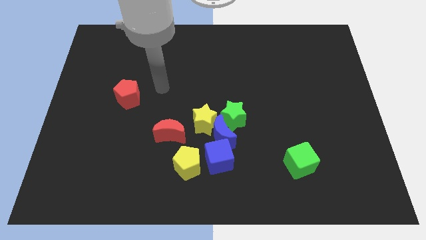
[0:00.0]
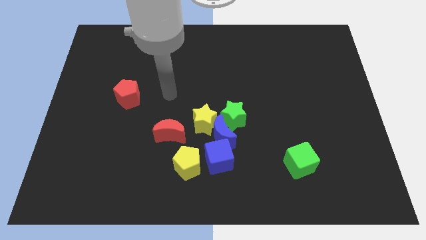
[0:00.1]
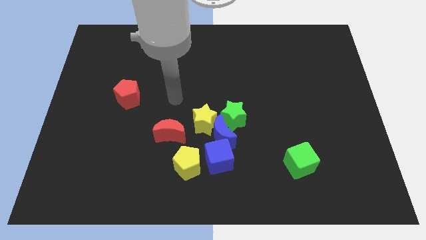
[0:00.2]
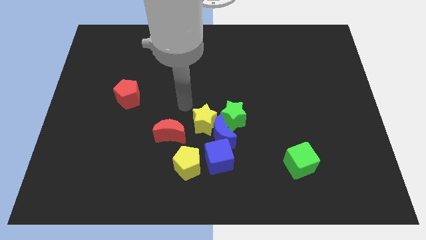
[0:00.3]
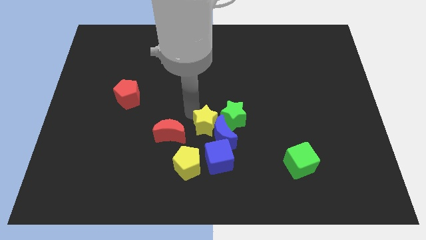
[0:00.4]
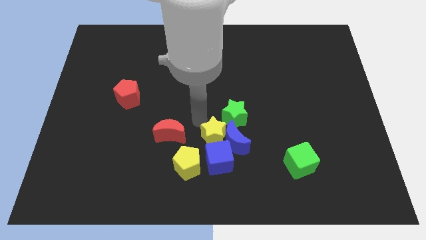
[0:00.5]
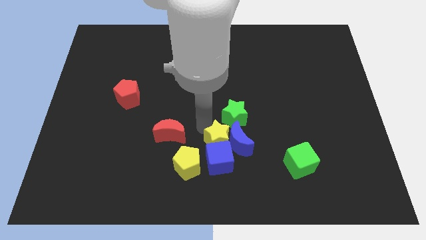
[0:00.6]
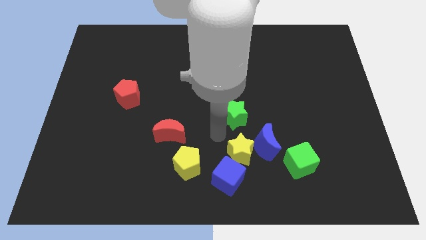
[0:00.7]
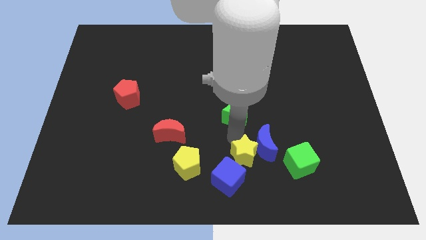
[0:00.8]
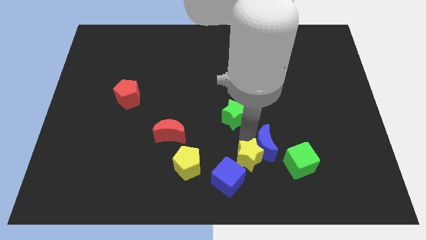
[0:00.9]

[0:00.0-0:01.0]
pull the green star apart from the blue moon and yellow star

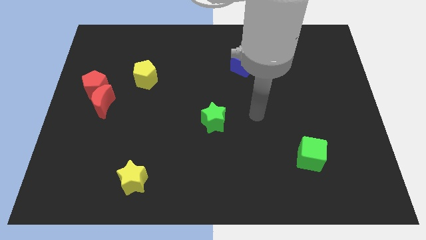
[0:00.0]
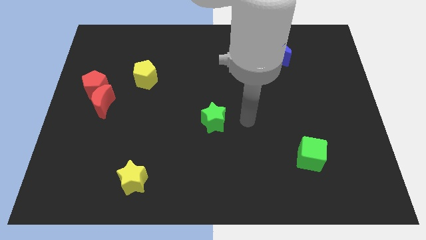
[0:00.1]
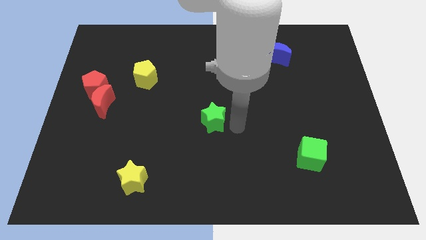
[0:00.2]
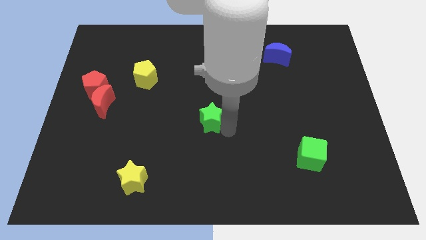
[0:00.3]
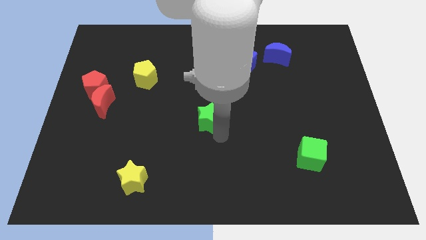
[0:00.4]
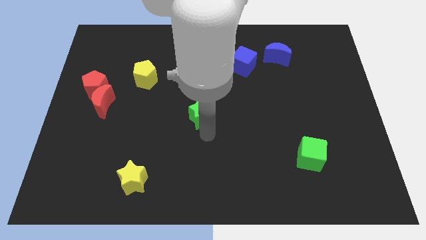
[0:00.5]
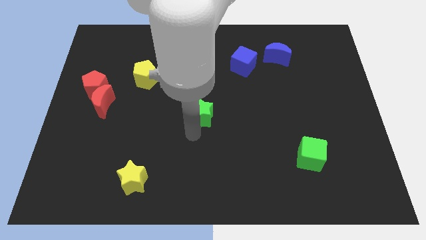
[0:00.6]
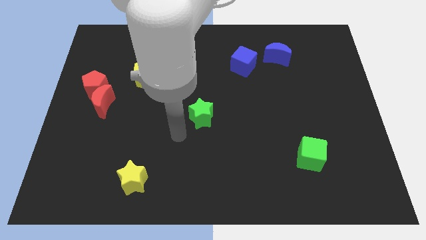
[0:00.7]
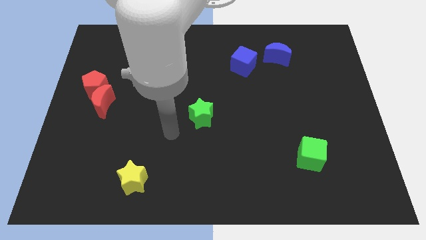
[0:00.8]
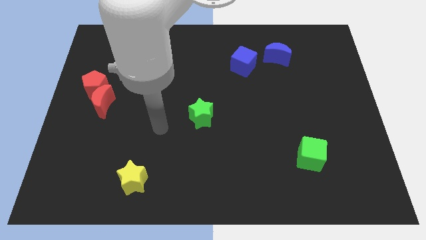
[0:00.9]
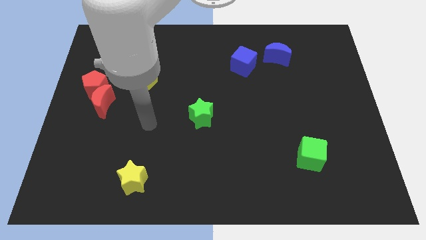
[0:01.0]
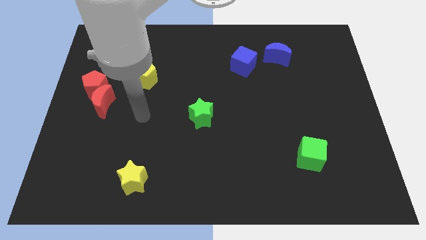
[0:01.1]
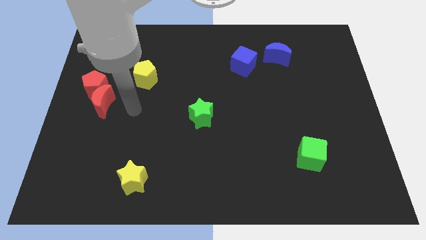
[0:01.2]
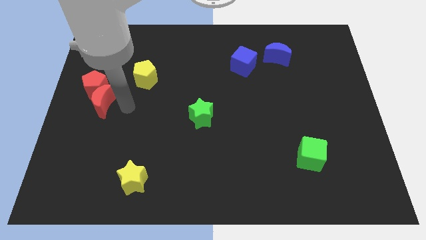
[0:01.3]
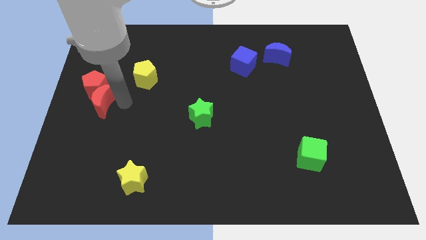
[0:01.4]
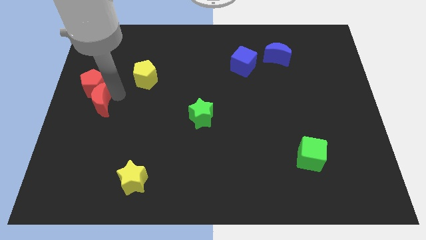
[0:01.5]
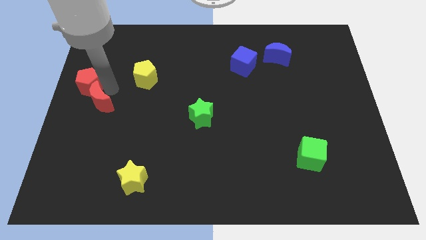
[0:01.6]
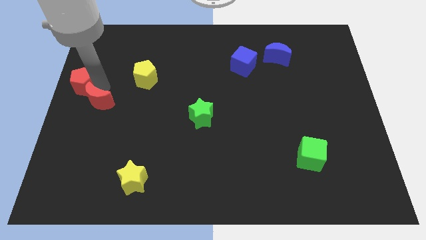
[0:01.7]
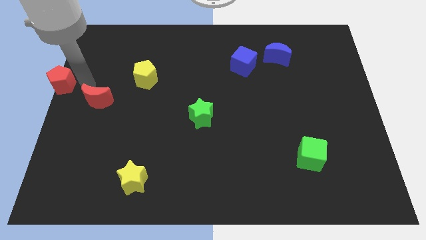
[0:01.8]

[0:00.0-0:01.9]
pull the red moon apart from the red pentagon

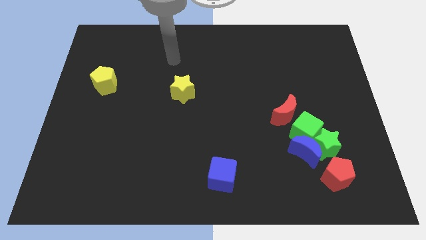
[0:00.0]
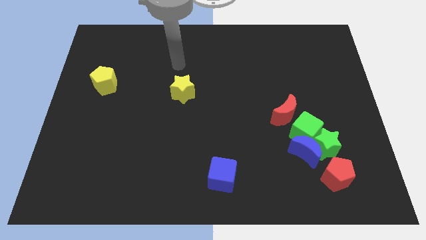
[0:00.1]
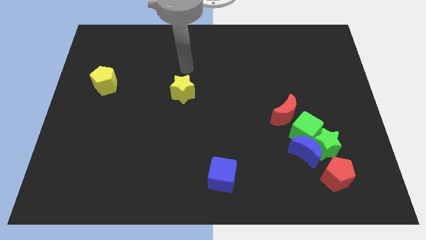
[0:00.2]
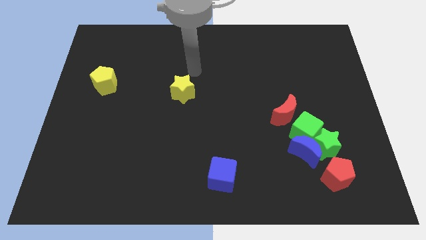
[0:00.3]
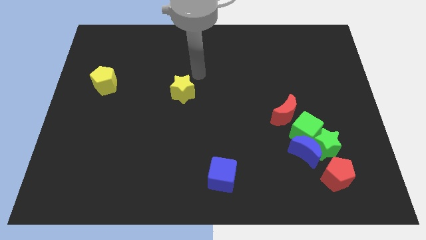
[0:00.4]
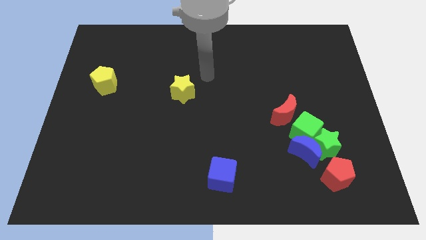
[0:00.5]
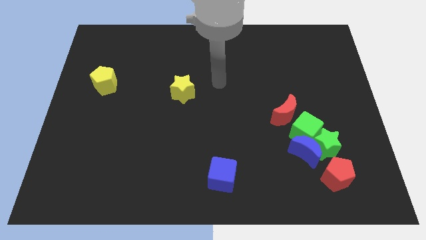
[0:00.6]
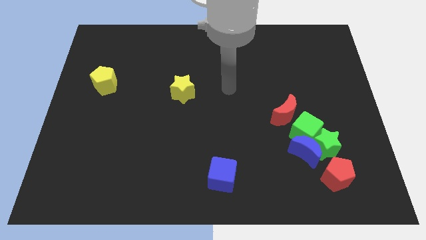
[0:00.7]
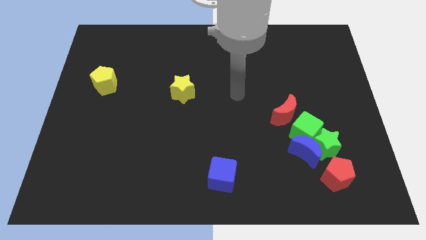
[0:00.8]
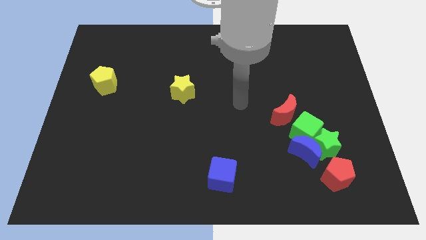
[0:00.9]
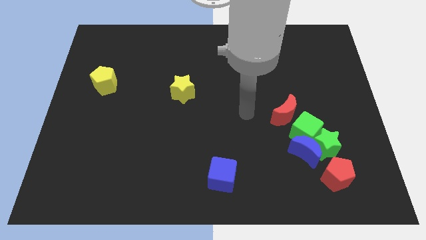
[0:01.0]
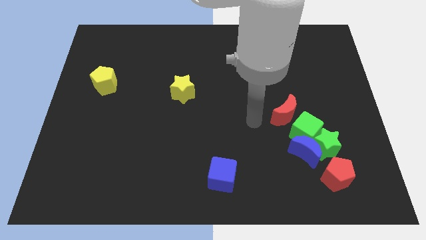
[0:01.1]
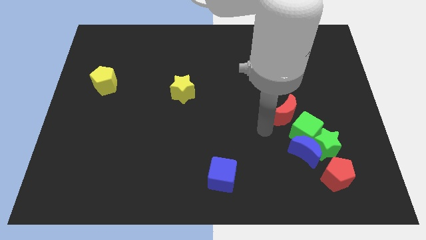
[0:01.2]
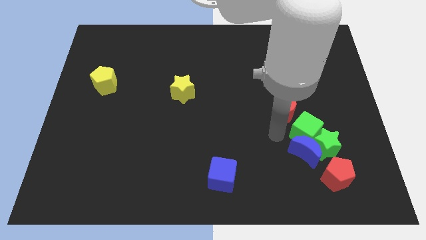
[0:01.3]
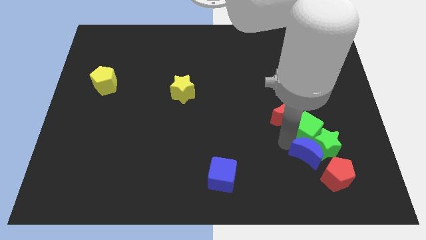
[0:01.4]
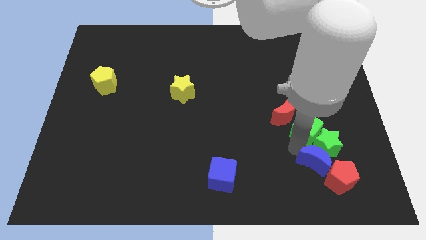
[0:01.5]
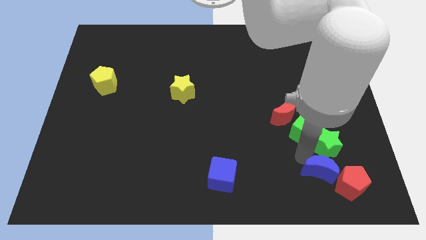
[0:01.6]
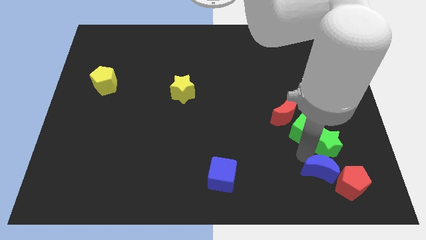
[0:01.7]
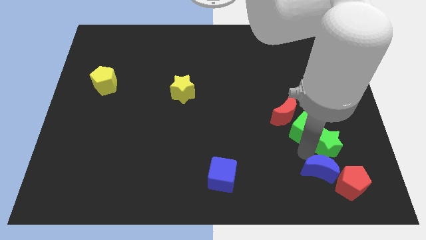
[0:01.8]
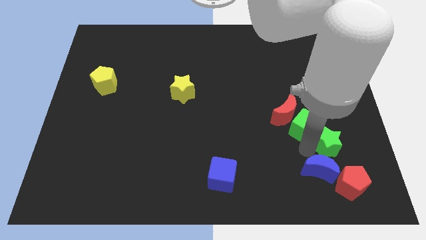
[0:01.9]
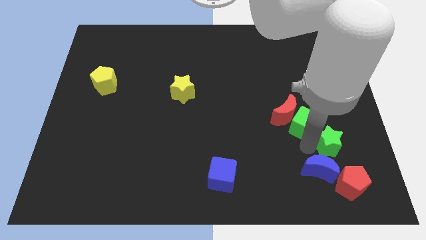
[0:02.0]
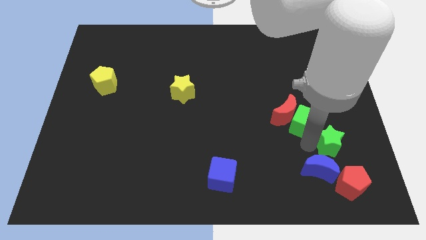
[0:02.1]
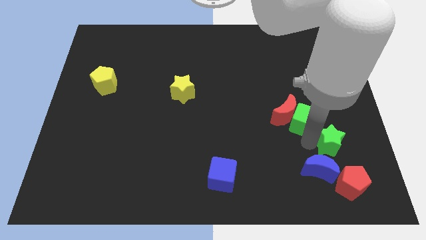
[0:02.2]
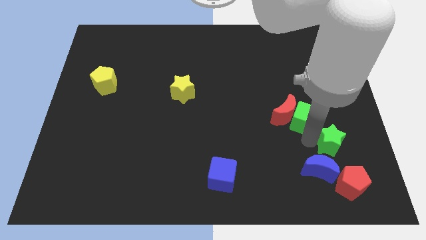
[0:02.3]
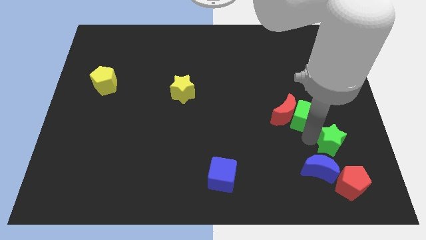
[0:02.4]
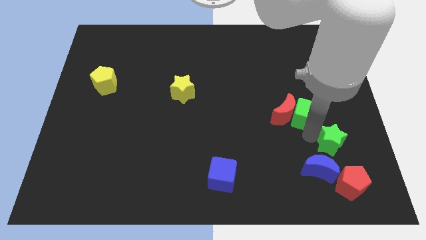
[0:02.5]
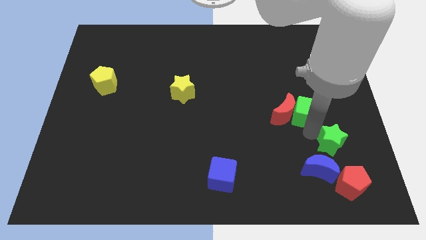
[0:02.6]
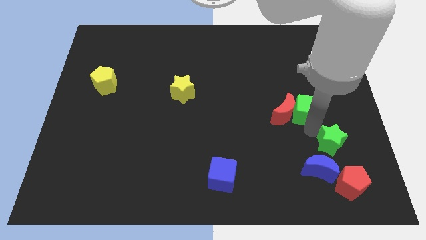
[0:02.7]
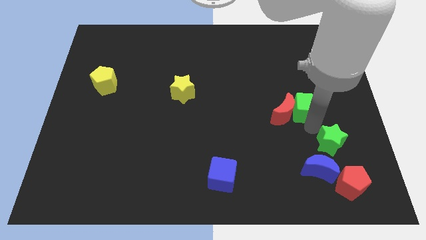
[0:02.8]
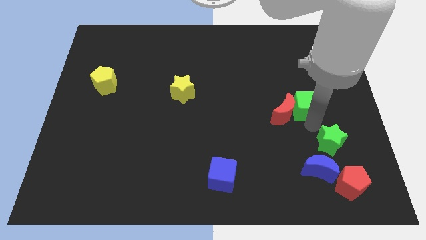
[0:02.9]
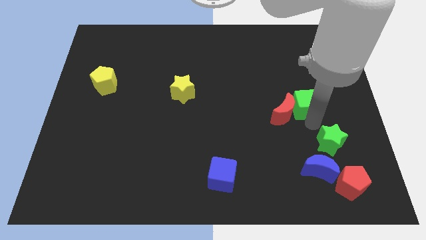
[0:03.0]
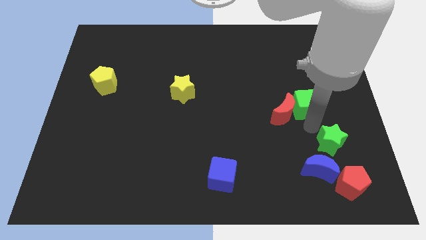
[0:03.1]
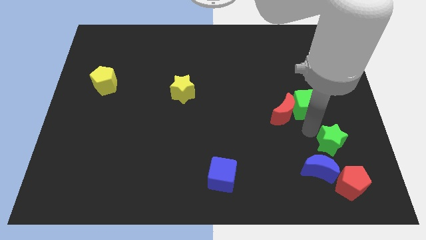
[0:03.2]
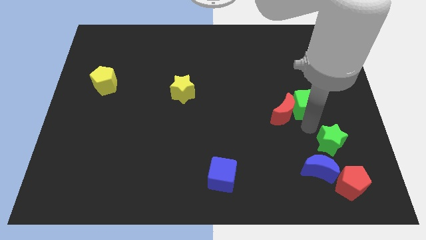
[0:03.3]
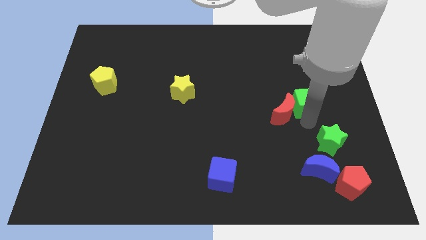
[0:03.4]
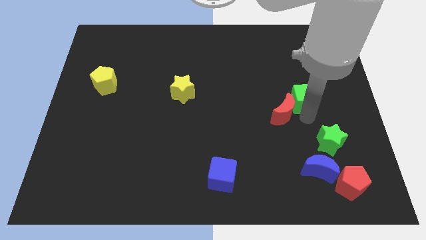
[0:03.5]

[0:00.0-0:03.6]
separate the green cube from the group

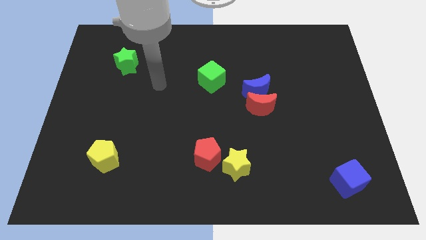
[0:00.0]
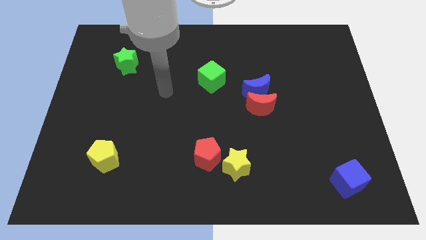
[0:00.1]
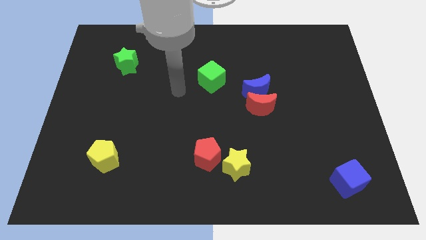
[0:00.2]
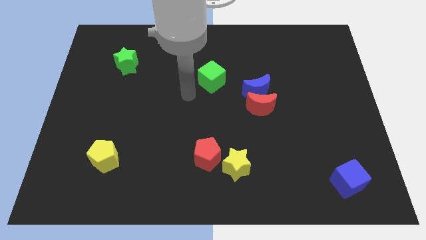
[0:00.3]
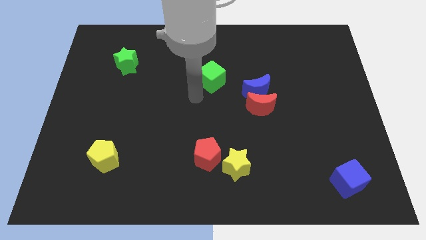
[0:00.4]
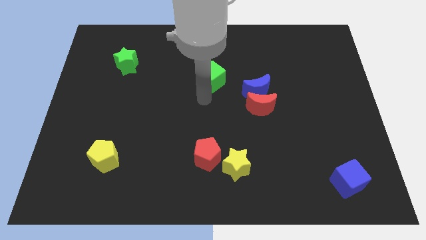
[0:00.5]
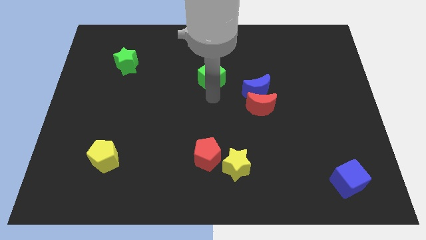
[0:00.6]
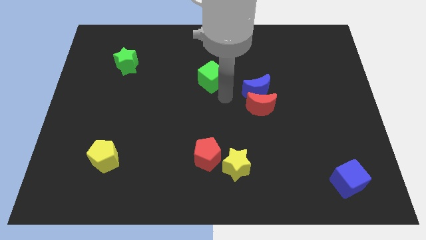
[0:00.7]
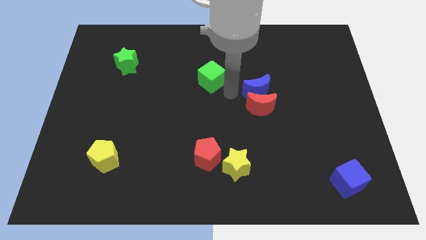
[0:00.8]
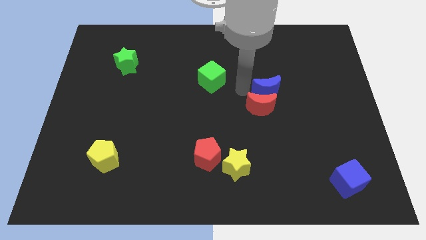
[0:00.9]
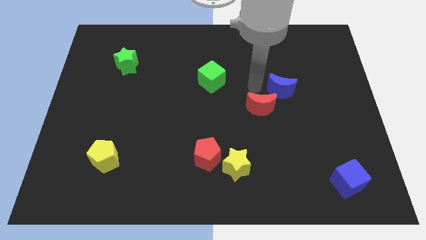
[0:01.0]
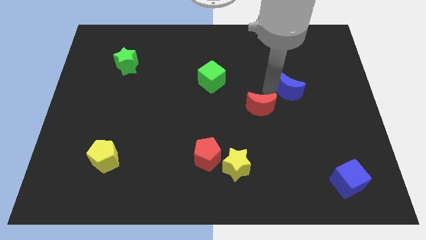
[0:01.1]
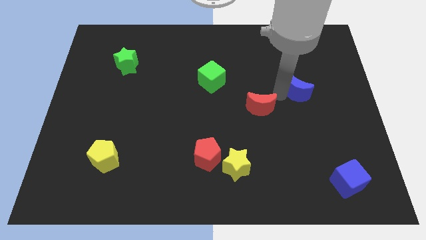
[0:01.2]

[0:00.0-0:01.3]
pull the red moon apart from the blue moon

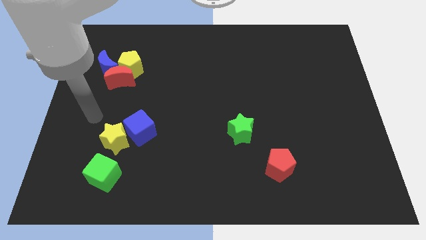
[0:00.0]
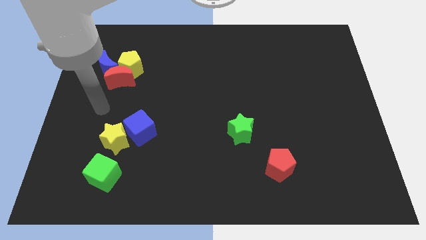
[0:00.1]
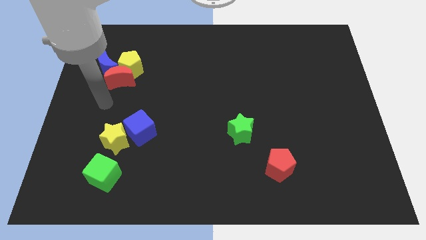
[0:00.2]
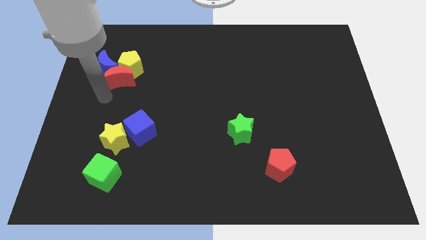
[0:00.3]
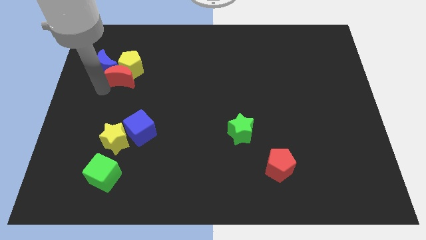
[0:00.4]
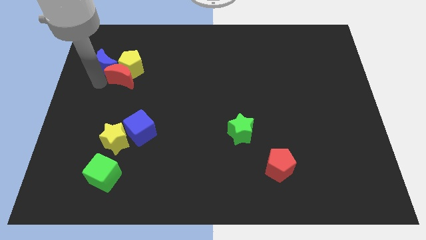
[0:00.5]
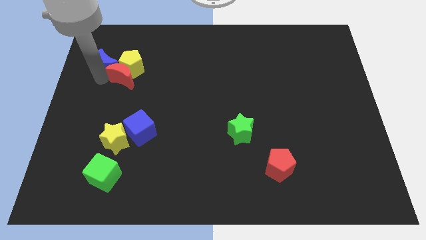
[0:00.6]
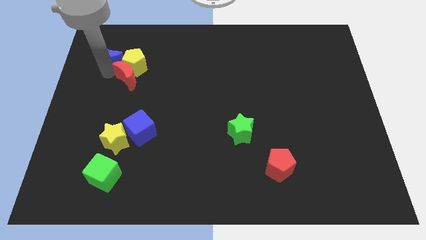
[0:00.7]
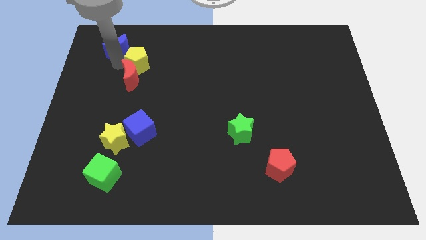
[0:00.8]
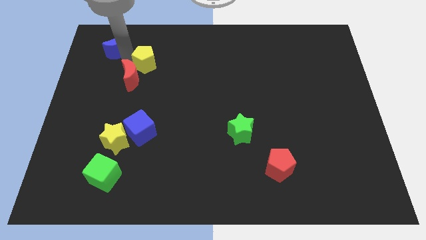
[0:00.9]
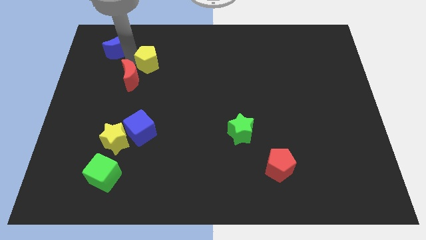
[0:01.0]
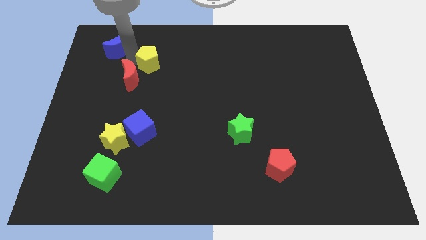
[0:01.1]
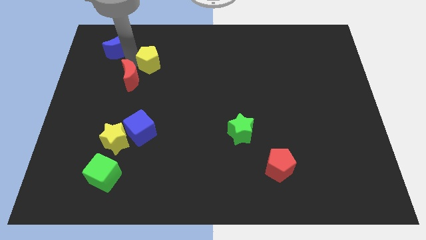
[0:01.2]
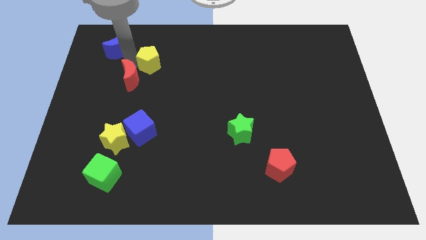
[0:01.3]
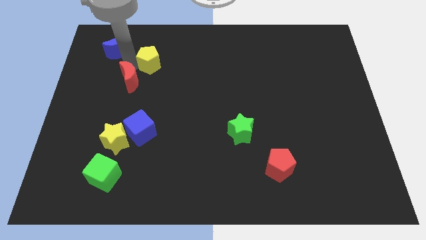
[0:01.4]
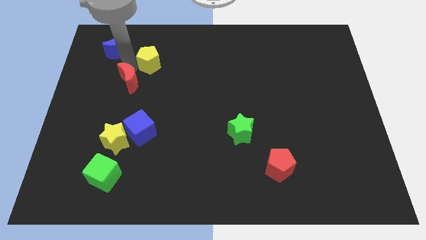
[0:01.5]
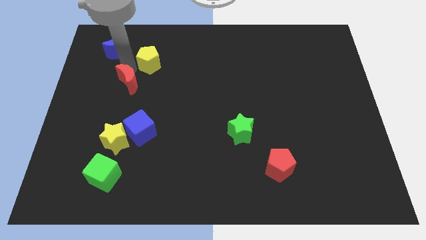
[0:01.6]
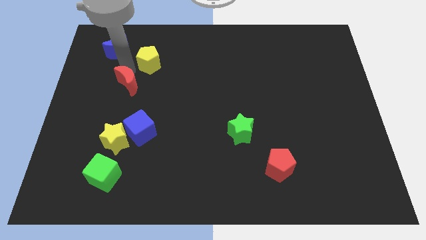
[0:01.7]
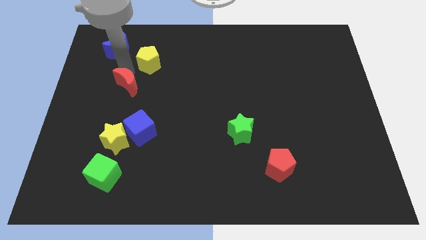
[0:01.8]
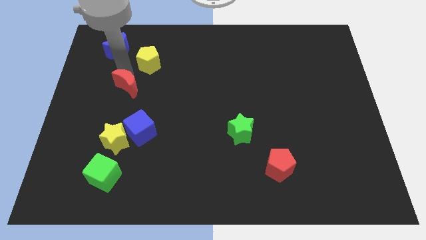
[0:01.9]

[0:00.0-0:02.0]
move the red moon away from the yellow pentagon and blue moon
